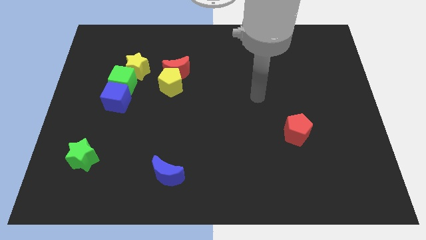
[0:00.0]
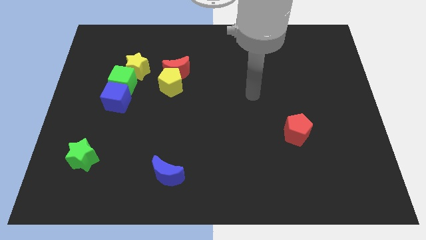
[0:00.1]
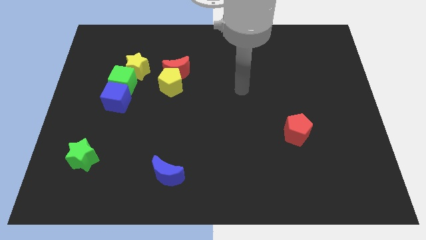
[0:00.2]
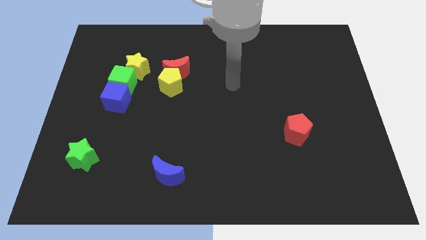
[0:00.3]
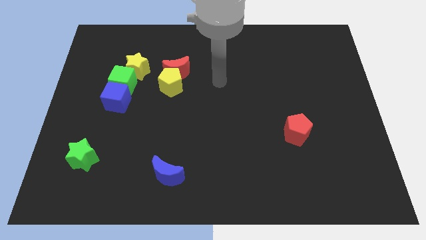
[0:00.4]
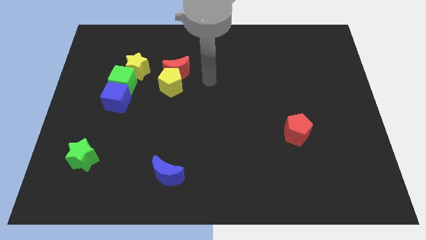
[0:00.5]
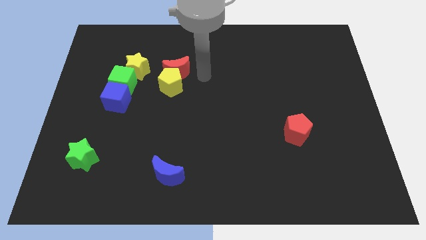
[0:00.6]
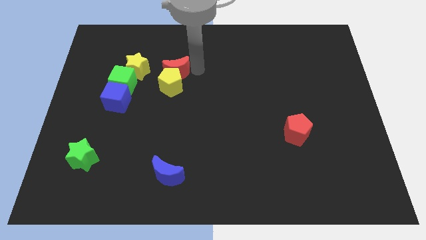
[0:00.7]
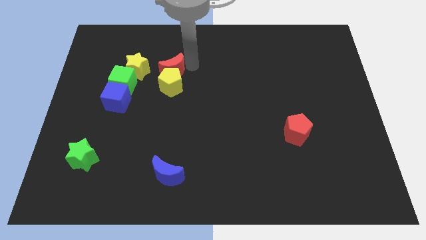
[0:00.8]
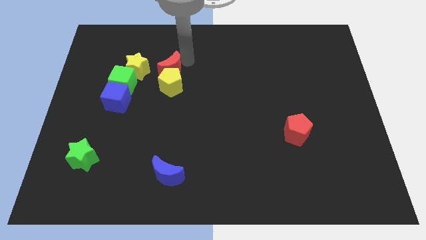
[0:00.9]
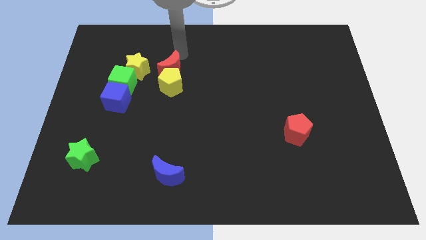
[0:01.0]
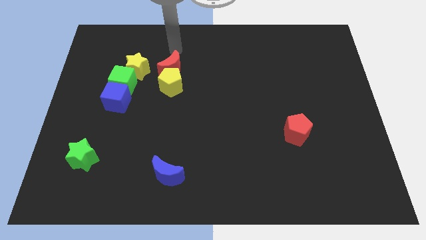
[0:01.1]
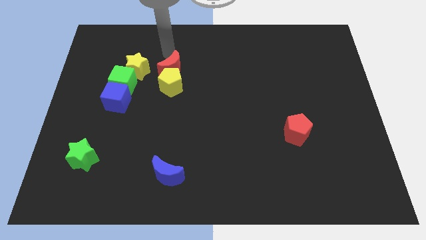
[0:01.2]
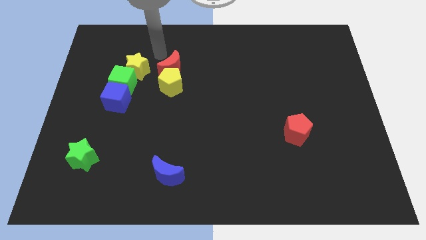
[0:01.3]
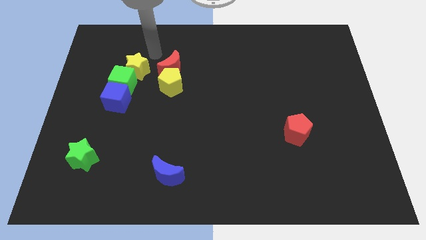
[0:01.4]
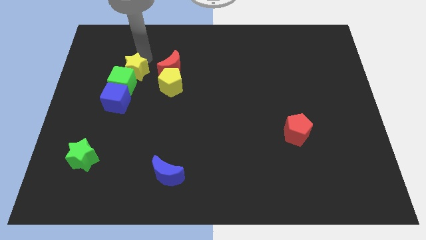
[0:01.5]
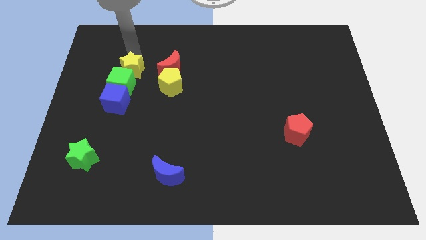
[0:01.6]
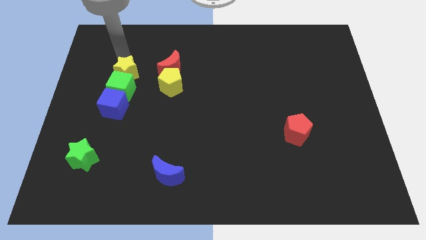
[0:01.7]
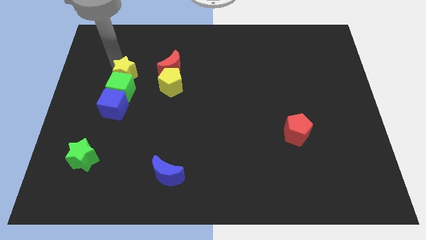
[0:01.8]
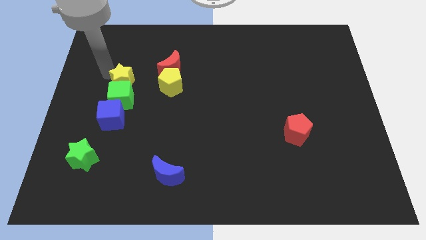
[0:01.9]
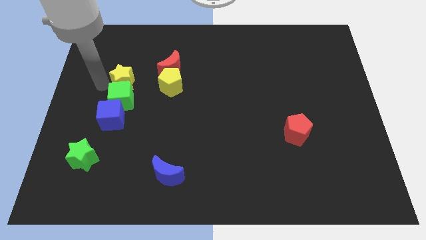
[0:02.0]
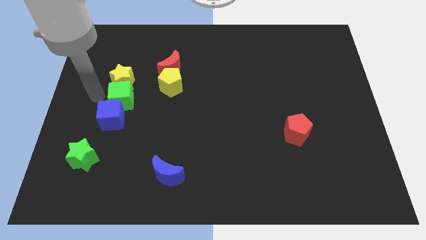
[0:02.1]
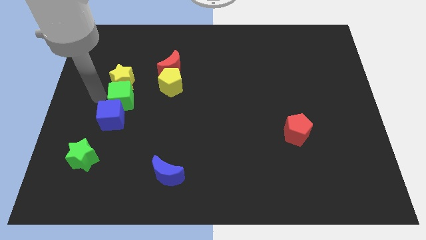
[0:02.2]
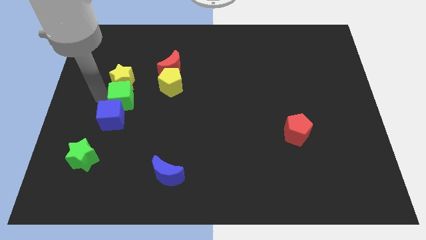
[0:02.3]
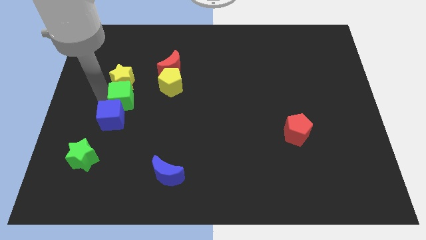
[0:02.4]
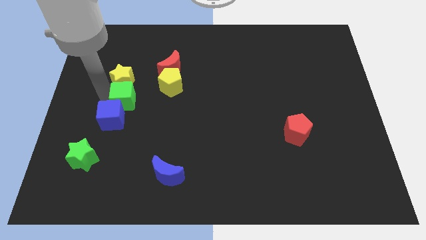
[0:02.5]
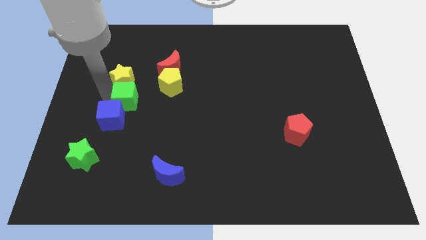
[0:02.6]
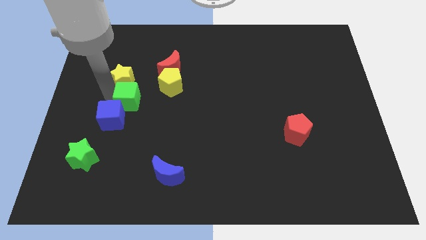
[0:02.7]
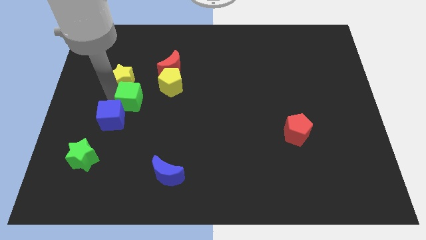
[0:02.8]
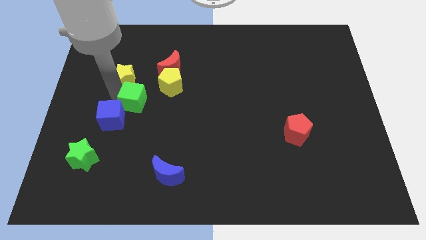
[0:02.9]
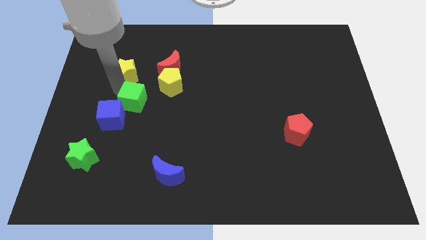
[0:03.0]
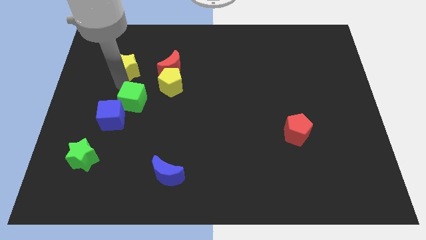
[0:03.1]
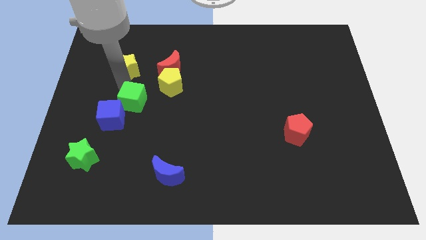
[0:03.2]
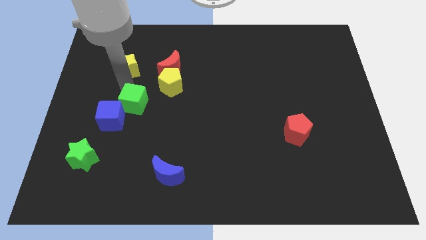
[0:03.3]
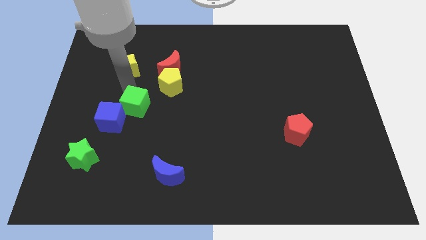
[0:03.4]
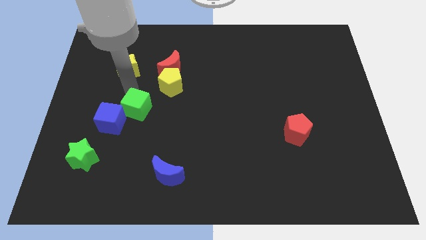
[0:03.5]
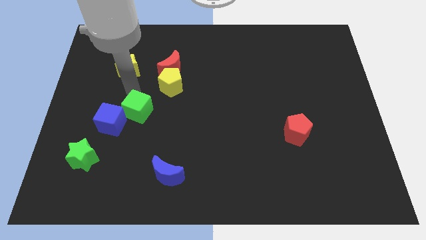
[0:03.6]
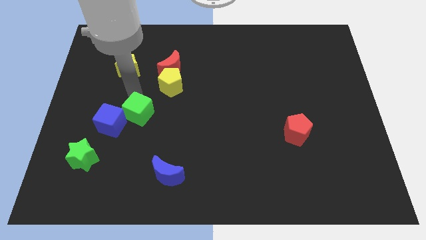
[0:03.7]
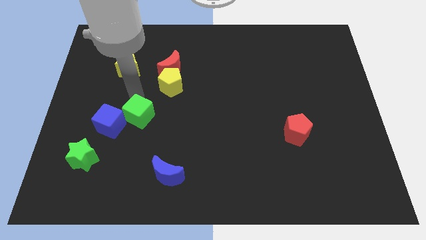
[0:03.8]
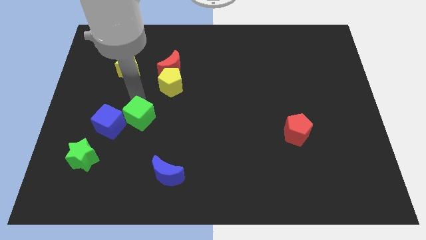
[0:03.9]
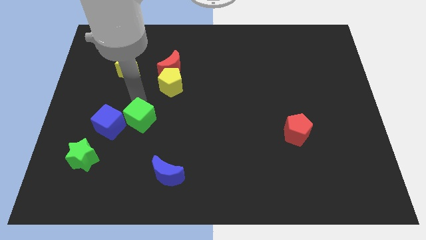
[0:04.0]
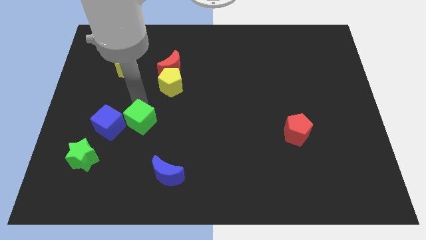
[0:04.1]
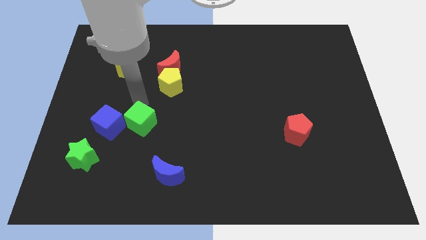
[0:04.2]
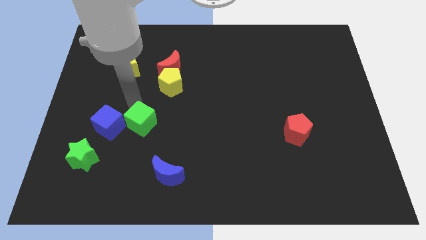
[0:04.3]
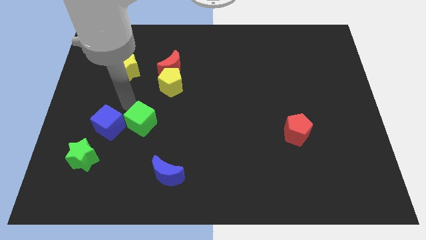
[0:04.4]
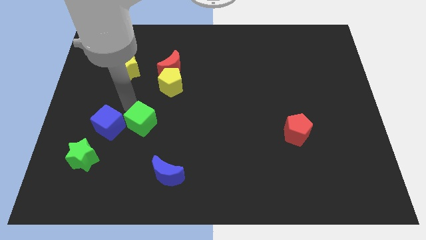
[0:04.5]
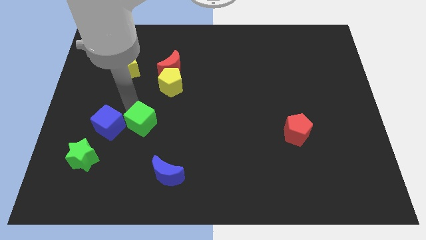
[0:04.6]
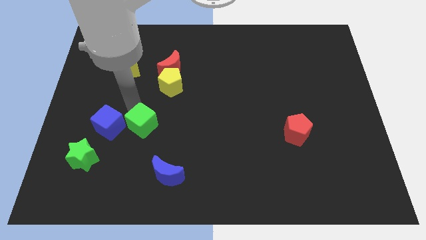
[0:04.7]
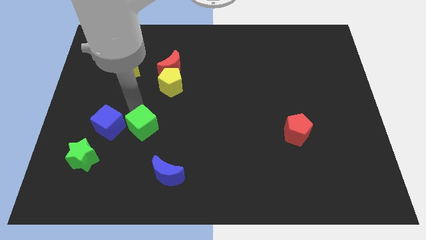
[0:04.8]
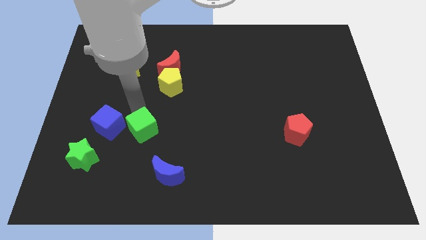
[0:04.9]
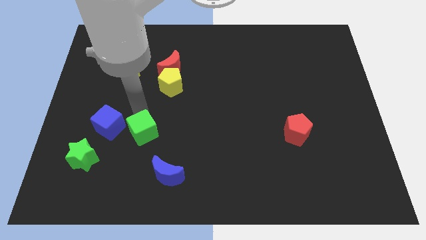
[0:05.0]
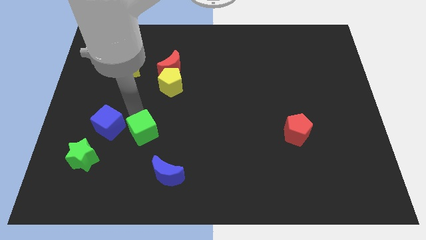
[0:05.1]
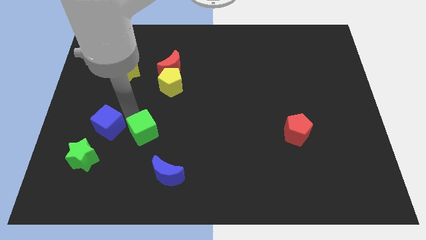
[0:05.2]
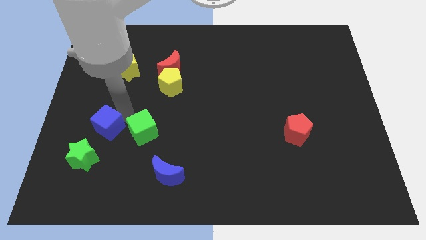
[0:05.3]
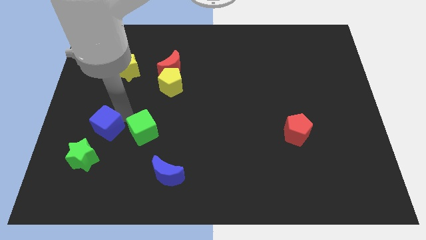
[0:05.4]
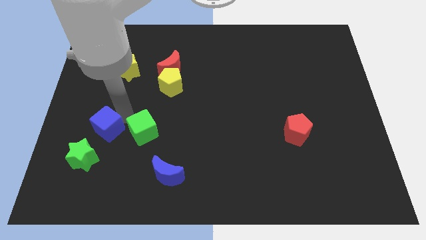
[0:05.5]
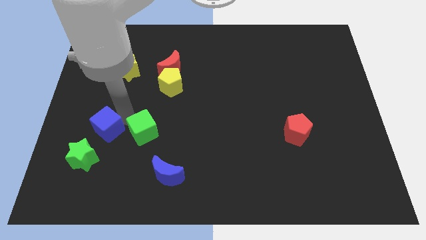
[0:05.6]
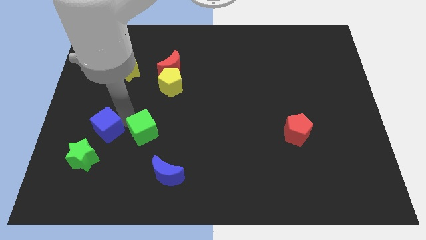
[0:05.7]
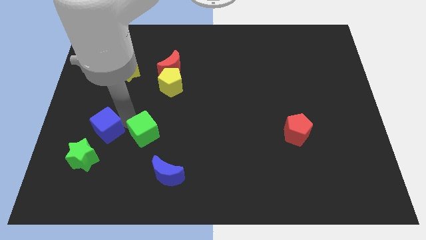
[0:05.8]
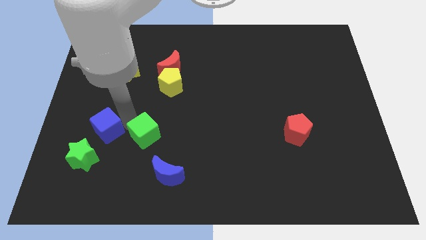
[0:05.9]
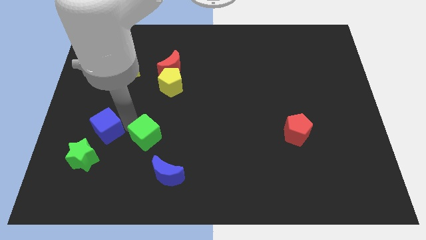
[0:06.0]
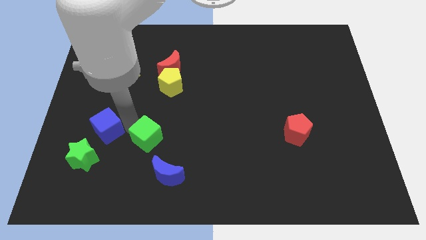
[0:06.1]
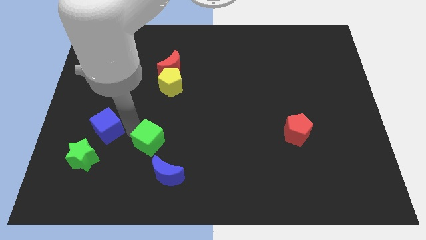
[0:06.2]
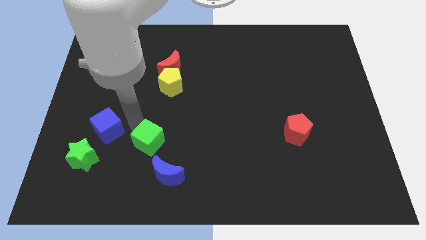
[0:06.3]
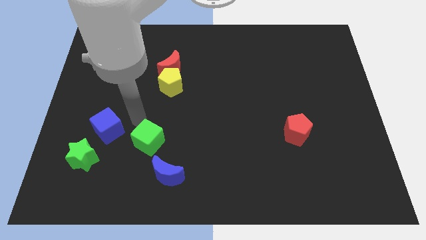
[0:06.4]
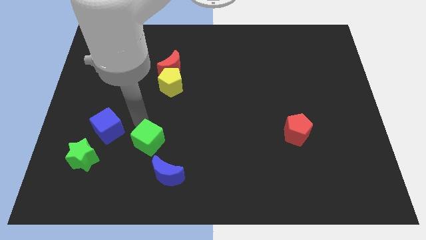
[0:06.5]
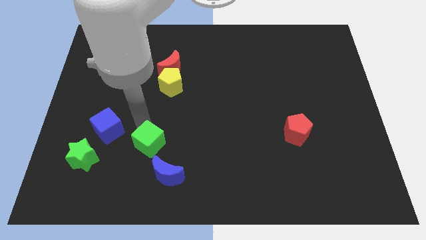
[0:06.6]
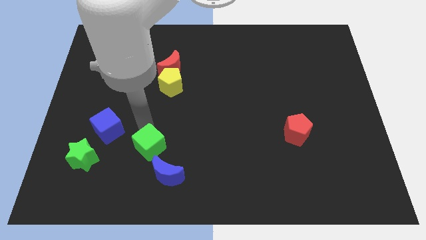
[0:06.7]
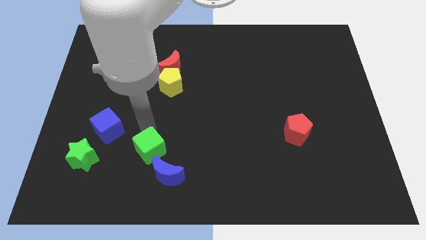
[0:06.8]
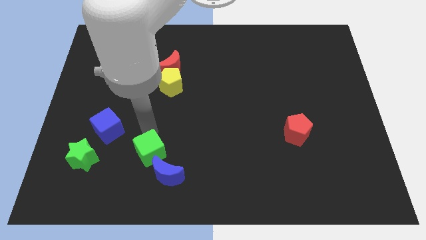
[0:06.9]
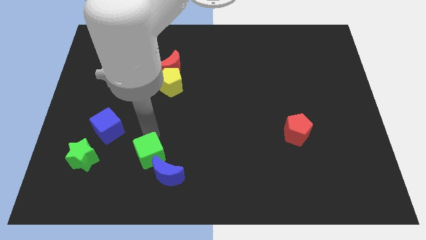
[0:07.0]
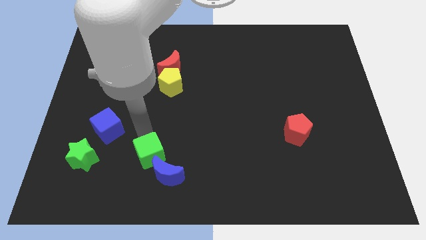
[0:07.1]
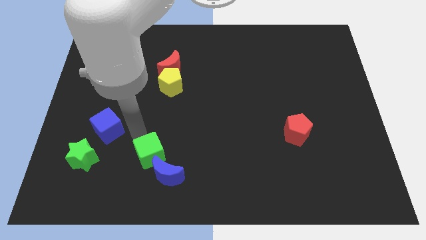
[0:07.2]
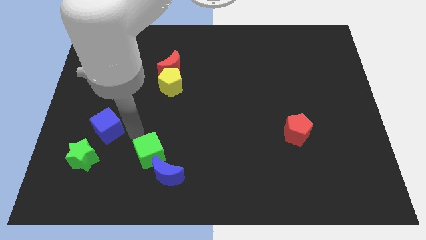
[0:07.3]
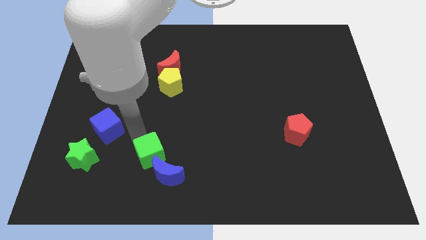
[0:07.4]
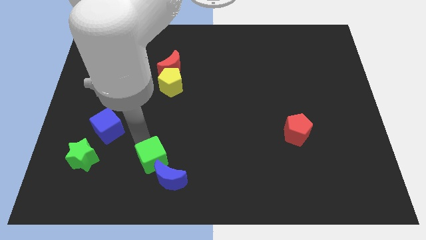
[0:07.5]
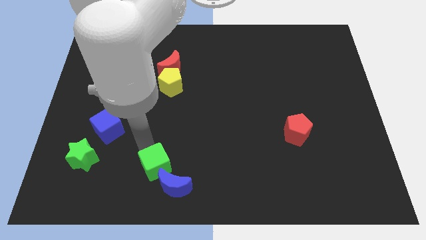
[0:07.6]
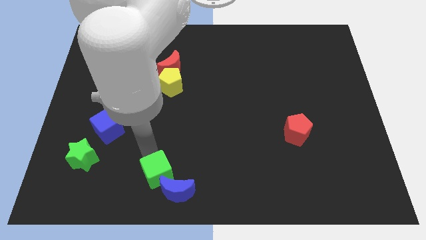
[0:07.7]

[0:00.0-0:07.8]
move the green cube next to the blue moon
